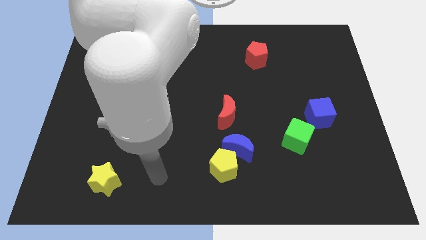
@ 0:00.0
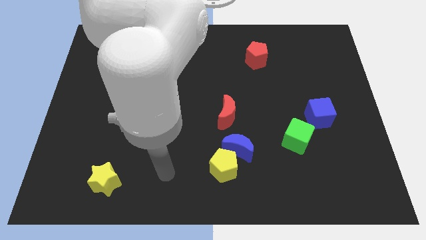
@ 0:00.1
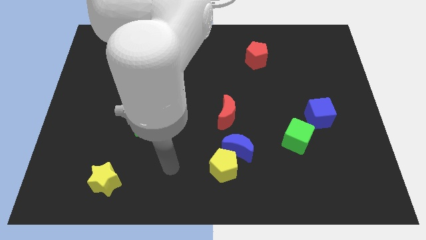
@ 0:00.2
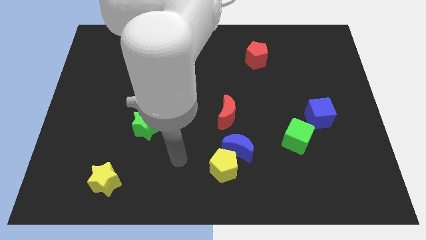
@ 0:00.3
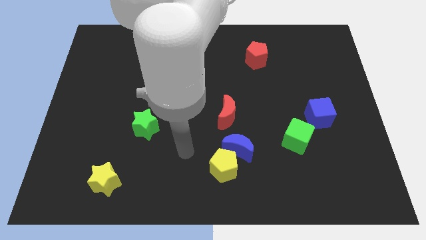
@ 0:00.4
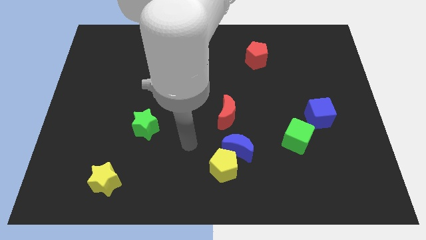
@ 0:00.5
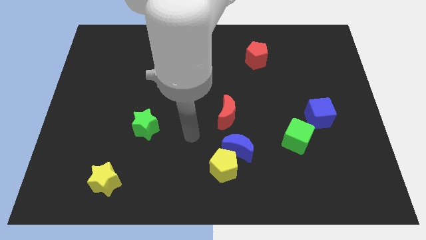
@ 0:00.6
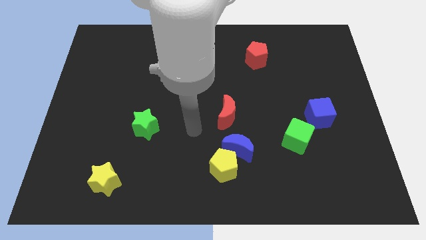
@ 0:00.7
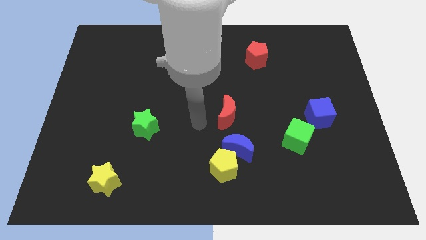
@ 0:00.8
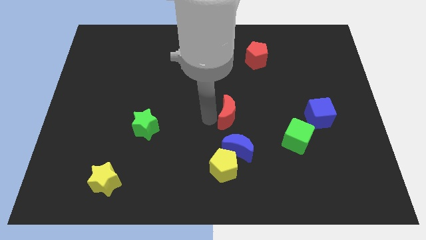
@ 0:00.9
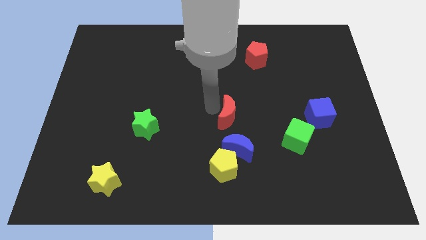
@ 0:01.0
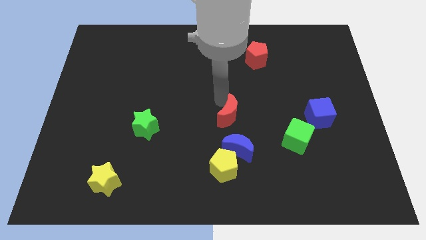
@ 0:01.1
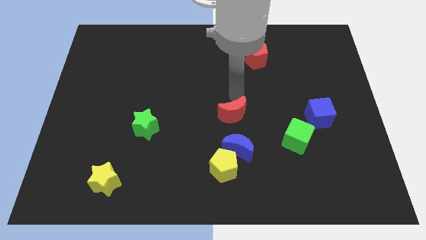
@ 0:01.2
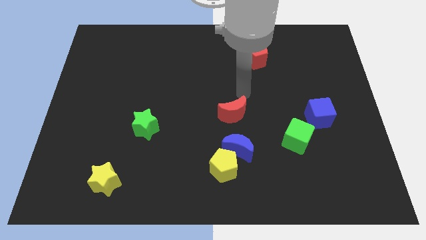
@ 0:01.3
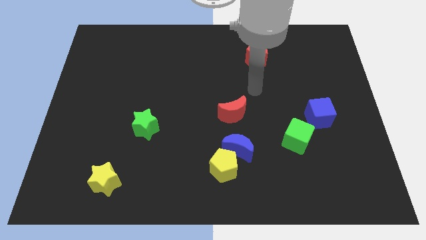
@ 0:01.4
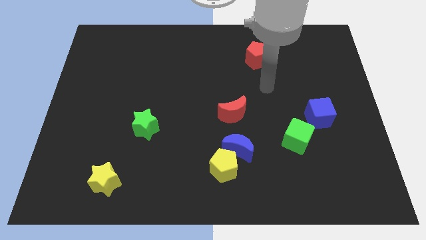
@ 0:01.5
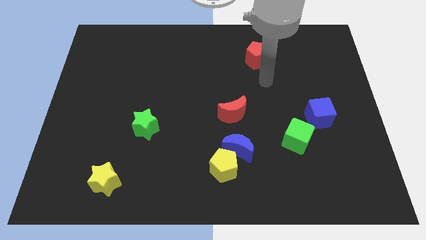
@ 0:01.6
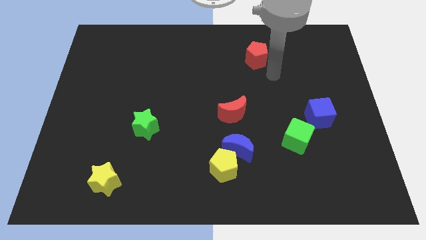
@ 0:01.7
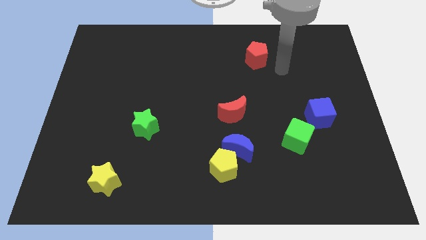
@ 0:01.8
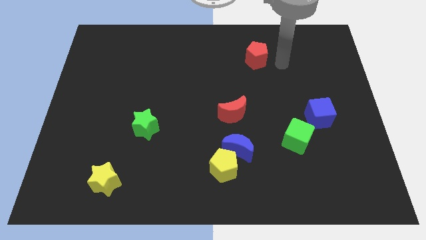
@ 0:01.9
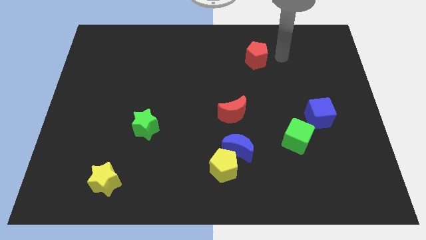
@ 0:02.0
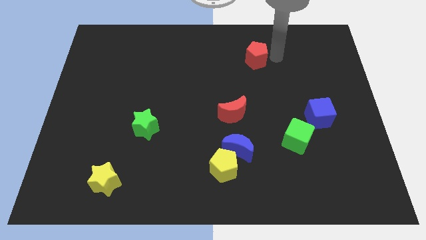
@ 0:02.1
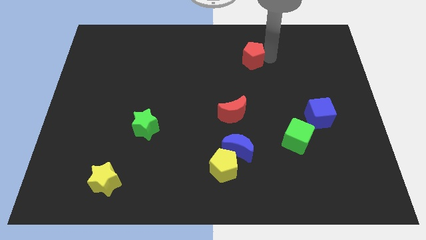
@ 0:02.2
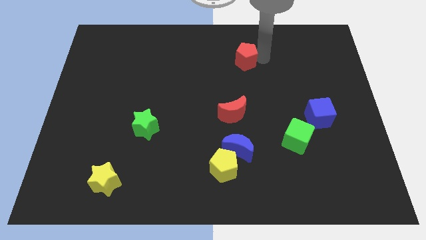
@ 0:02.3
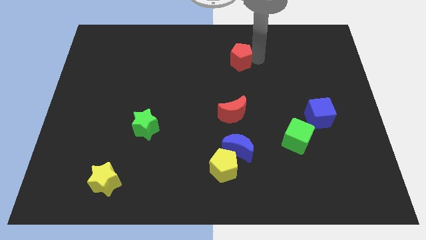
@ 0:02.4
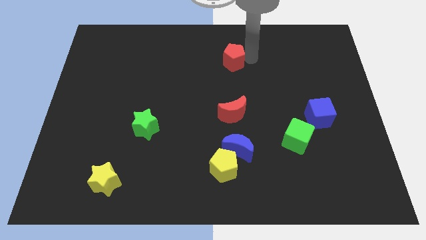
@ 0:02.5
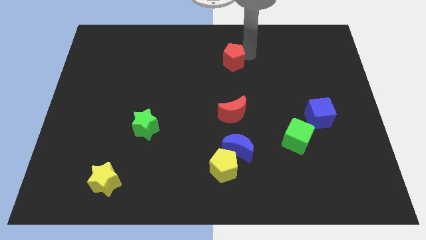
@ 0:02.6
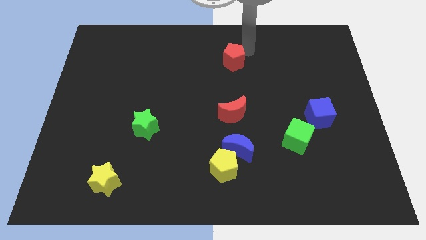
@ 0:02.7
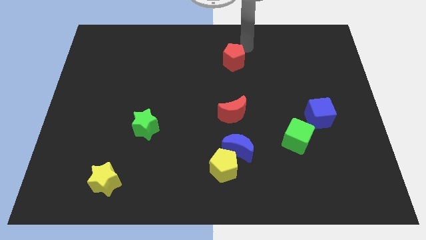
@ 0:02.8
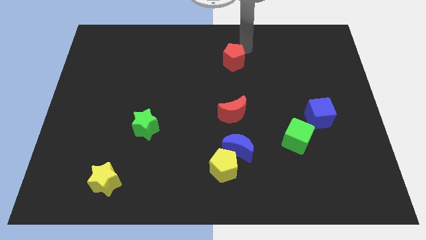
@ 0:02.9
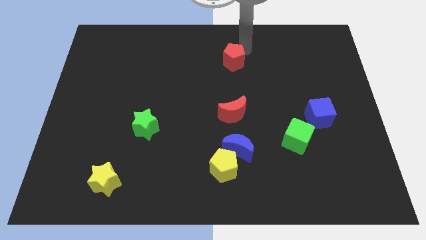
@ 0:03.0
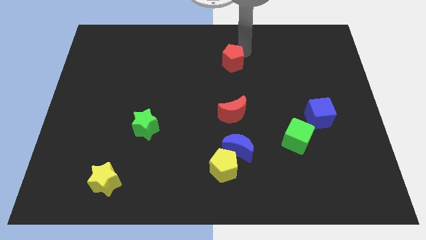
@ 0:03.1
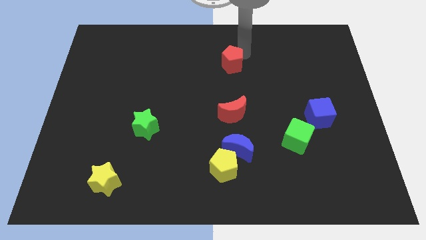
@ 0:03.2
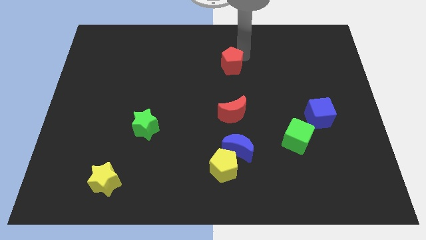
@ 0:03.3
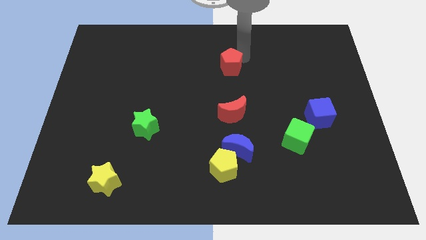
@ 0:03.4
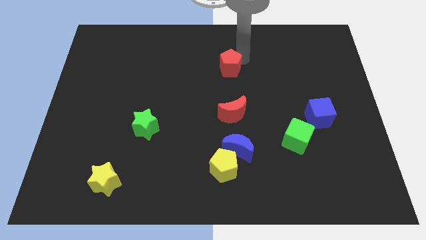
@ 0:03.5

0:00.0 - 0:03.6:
move the red pentagon slightly diagonally downwards and left

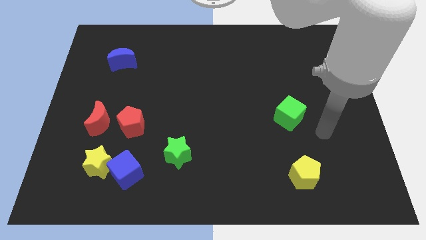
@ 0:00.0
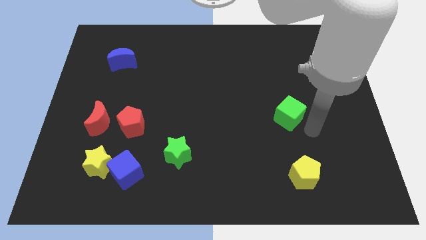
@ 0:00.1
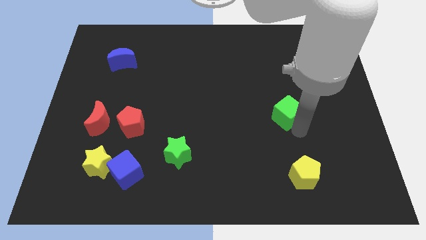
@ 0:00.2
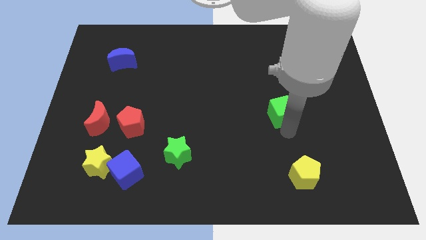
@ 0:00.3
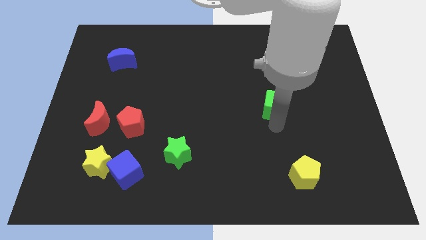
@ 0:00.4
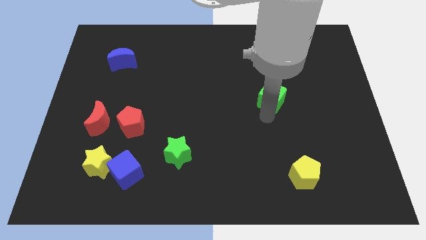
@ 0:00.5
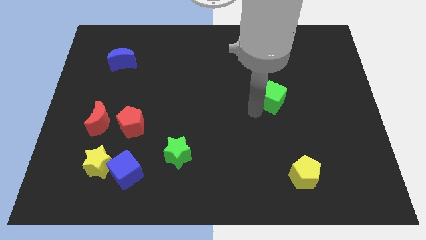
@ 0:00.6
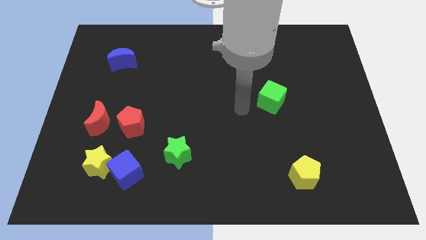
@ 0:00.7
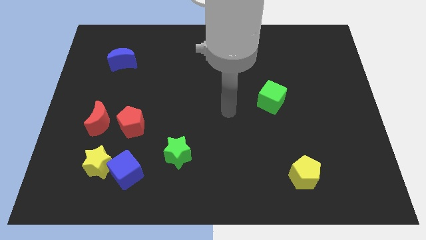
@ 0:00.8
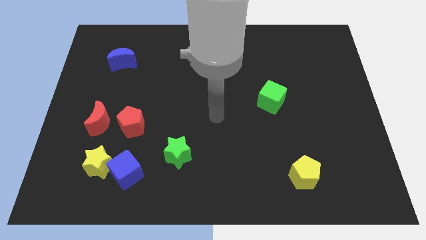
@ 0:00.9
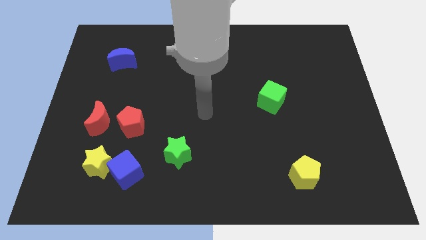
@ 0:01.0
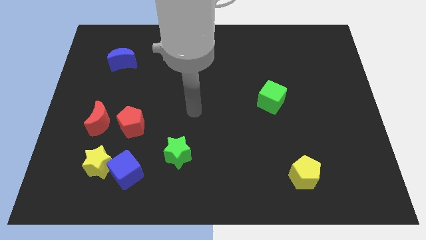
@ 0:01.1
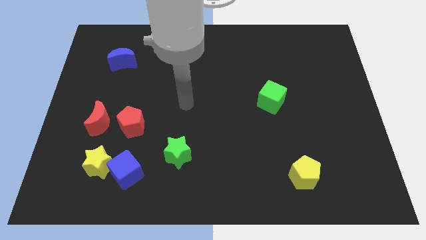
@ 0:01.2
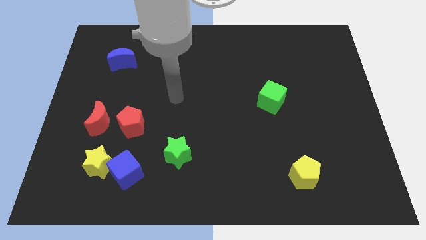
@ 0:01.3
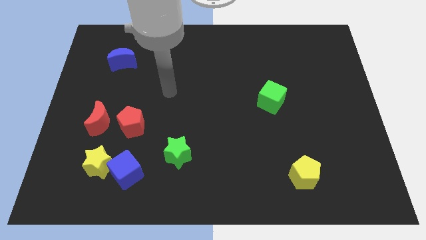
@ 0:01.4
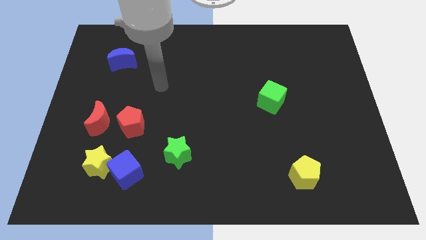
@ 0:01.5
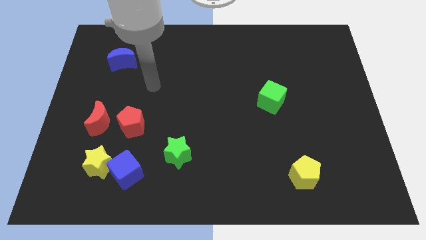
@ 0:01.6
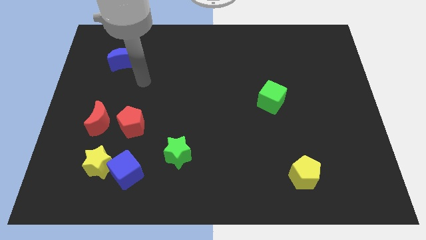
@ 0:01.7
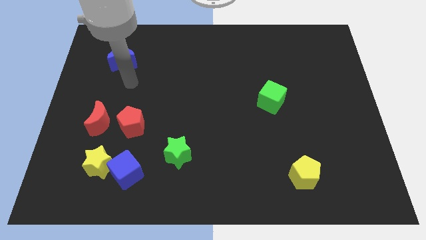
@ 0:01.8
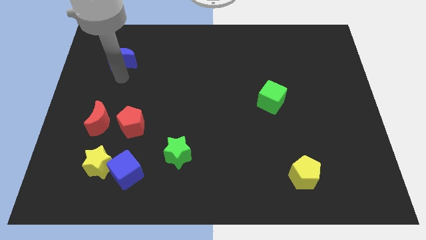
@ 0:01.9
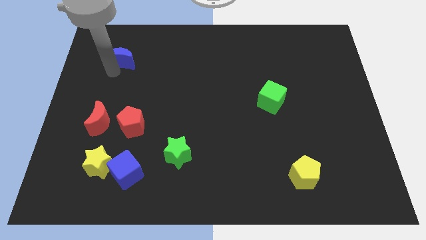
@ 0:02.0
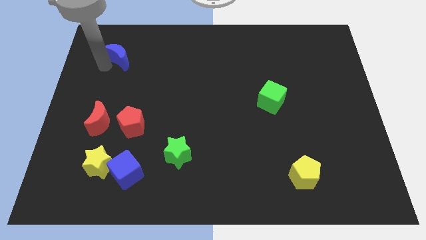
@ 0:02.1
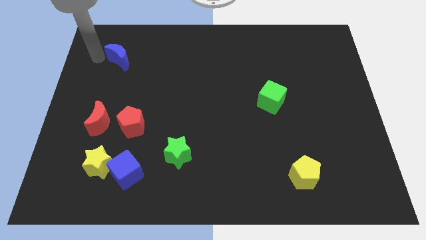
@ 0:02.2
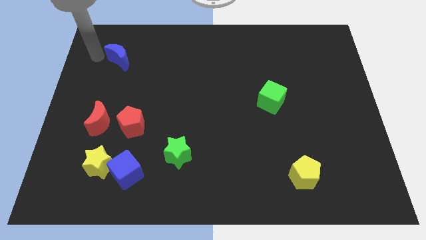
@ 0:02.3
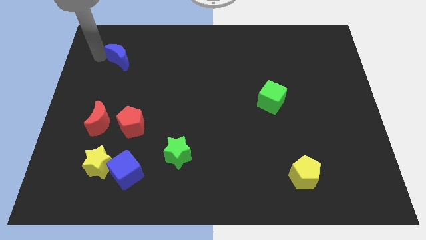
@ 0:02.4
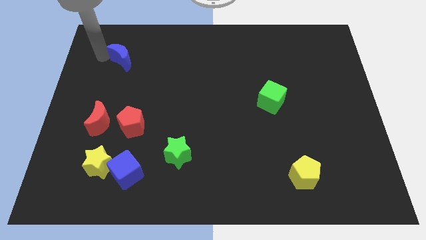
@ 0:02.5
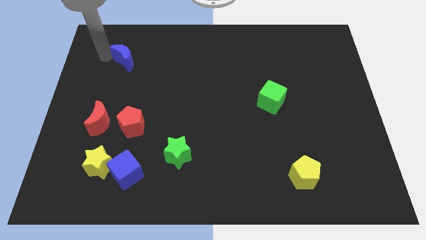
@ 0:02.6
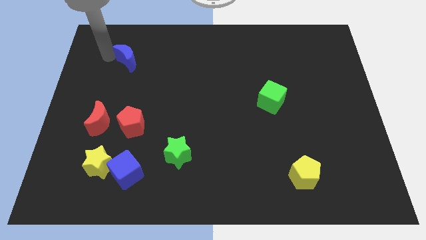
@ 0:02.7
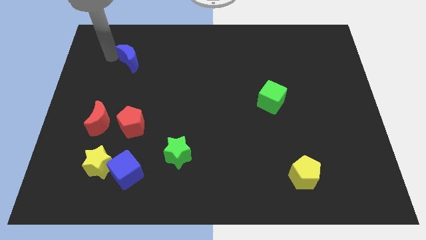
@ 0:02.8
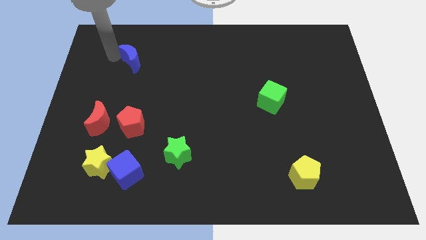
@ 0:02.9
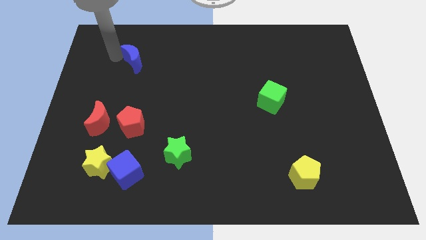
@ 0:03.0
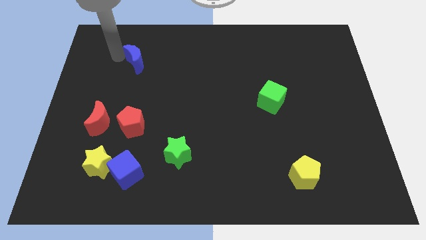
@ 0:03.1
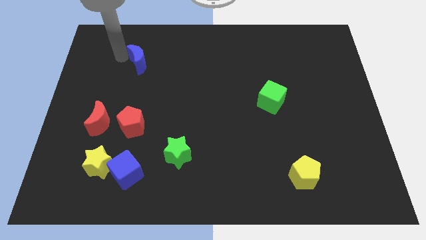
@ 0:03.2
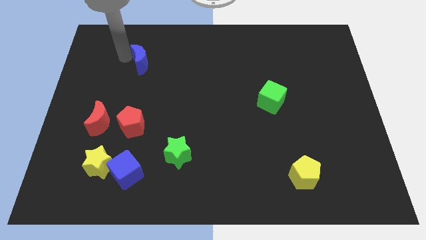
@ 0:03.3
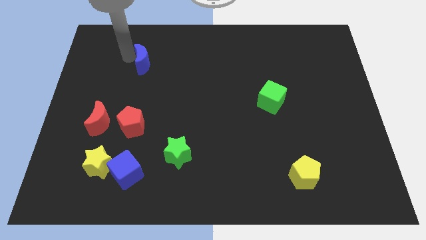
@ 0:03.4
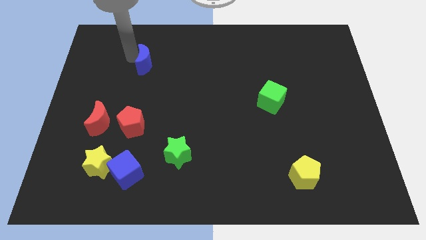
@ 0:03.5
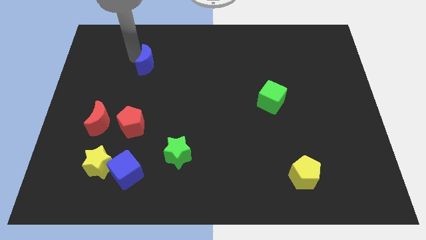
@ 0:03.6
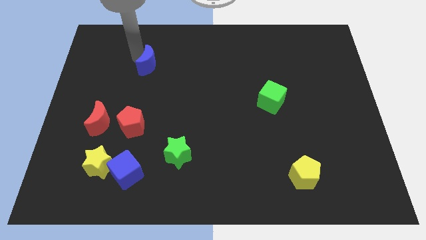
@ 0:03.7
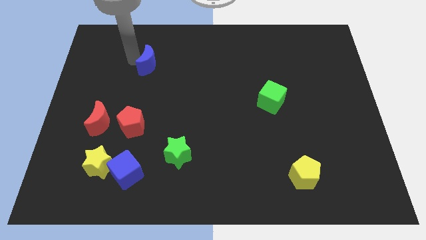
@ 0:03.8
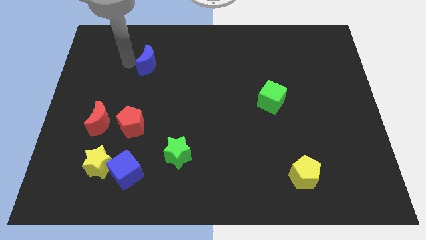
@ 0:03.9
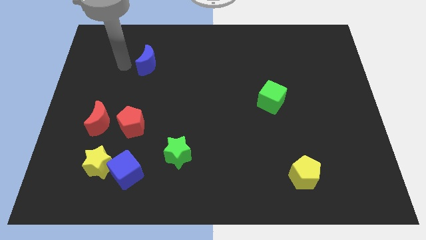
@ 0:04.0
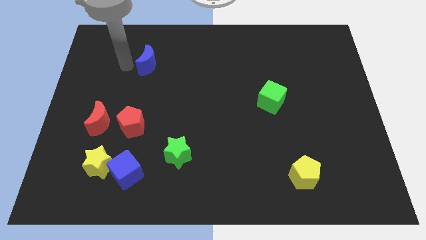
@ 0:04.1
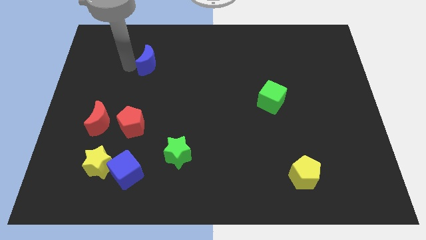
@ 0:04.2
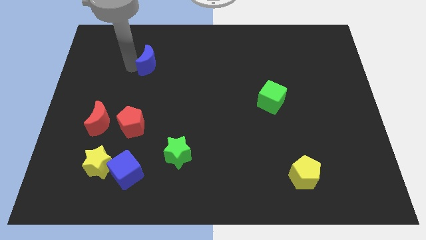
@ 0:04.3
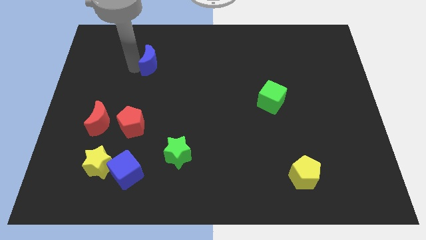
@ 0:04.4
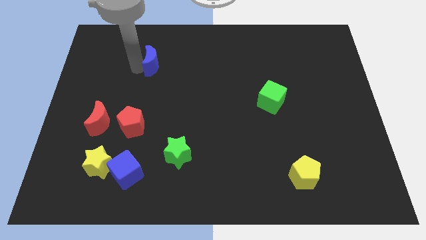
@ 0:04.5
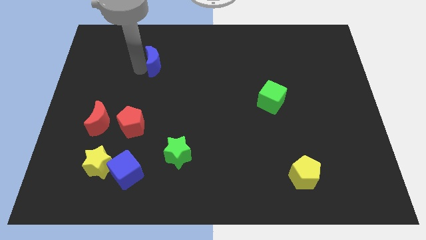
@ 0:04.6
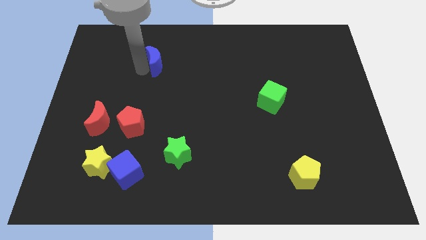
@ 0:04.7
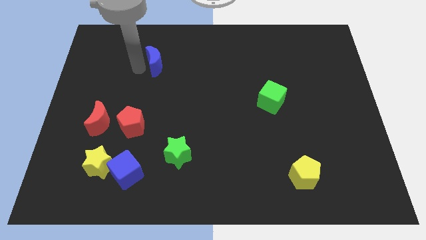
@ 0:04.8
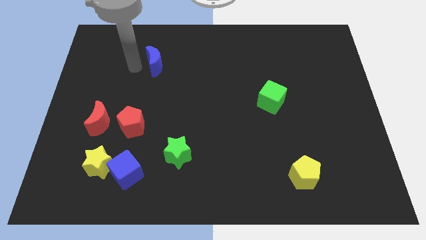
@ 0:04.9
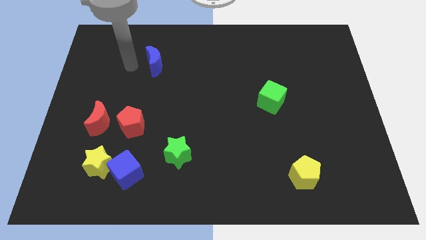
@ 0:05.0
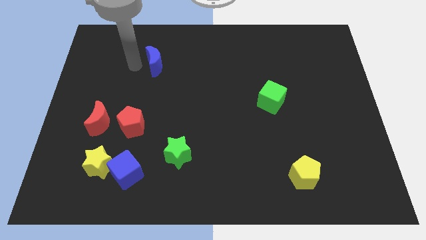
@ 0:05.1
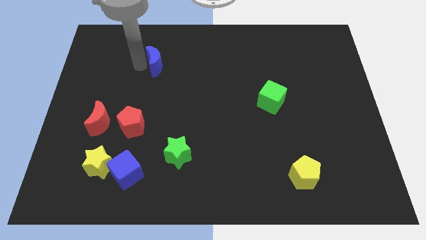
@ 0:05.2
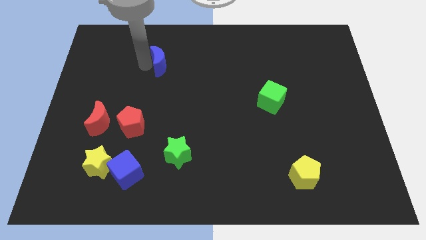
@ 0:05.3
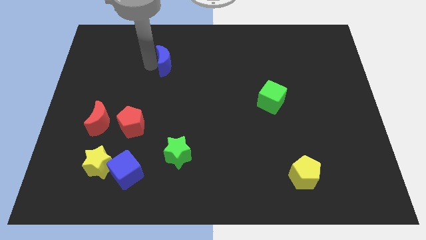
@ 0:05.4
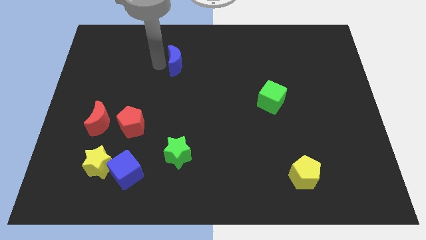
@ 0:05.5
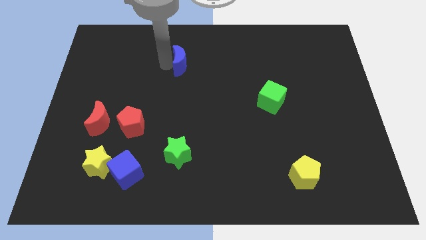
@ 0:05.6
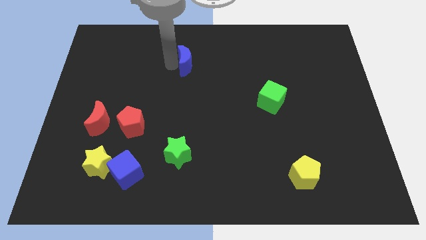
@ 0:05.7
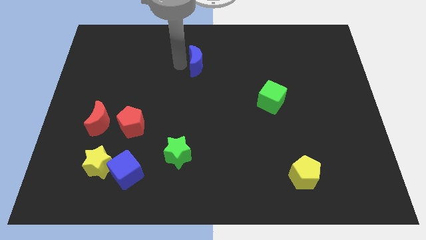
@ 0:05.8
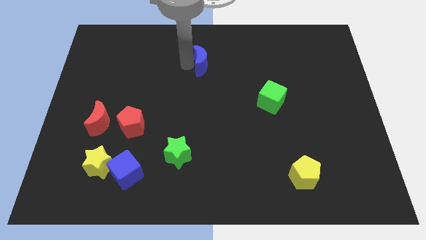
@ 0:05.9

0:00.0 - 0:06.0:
move the blue moon to the right
